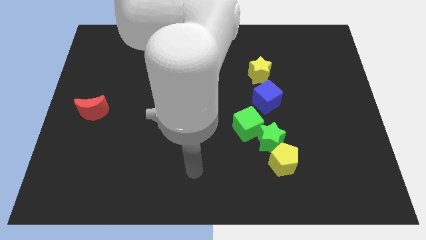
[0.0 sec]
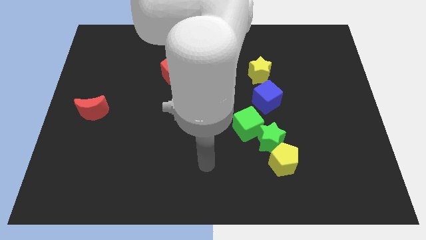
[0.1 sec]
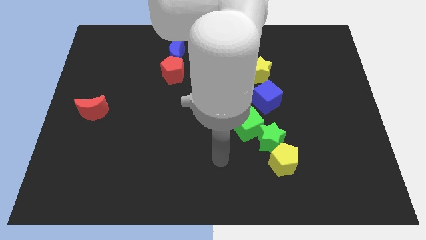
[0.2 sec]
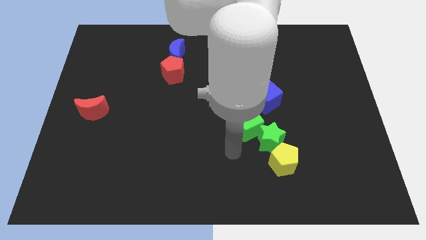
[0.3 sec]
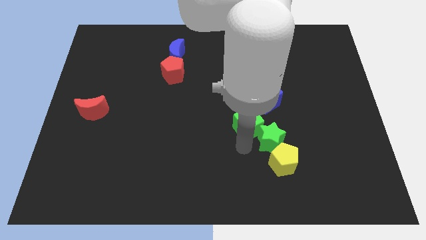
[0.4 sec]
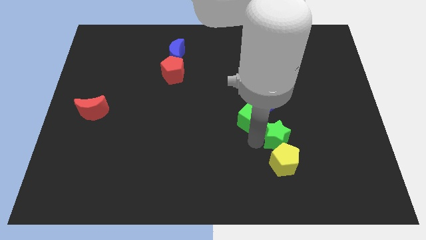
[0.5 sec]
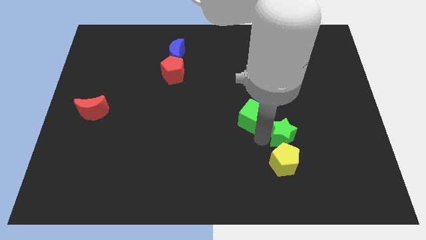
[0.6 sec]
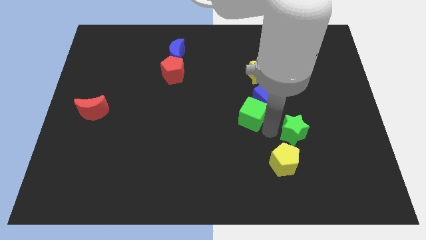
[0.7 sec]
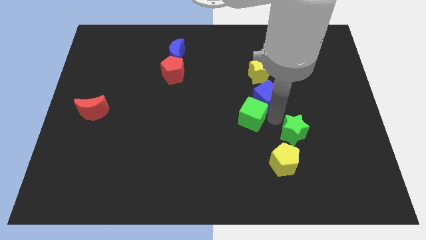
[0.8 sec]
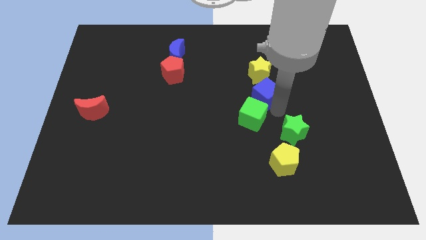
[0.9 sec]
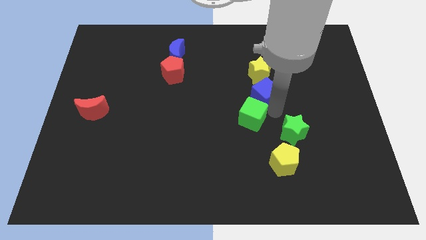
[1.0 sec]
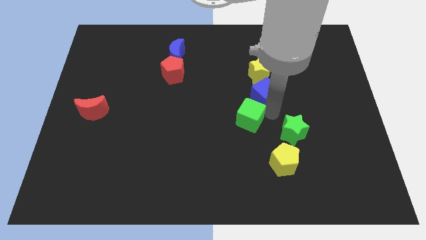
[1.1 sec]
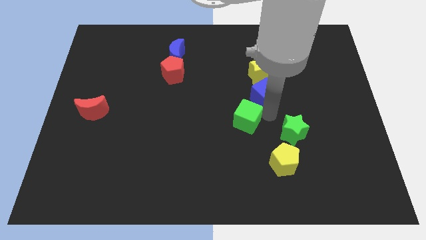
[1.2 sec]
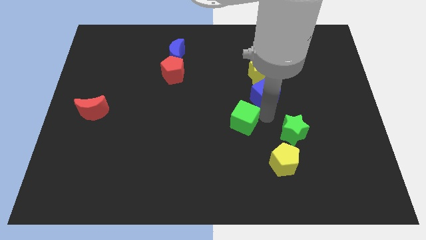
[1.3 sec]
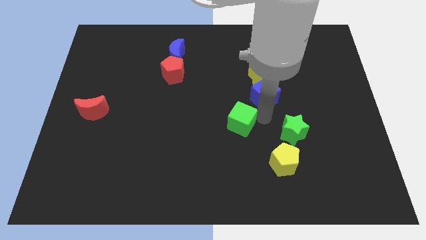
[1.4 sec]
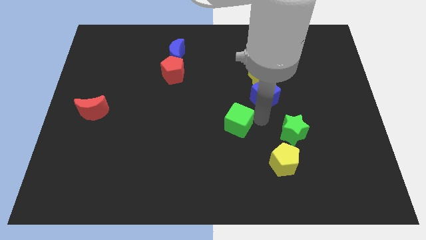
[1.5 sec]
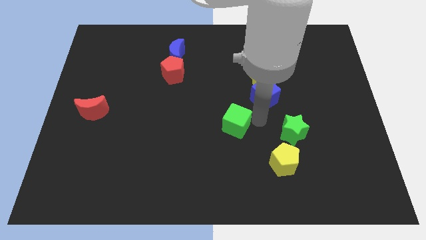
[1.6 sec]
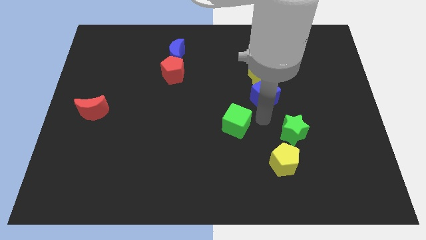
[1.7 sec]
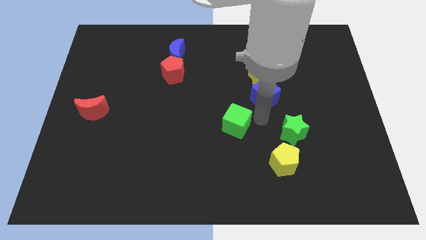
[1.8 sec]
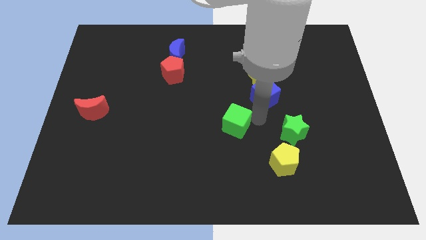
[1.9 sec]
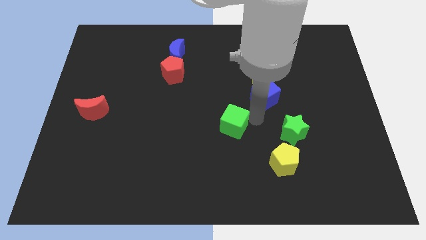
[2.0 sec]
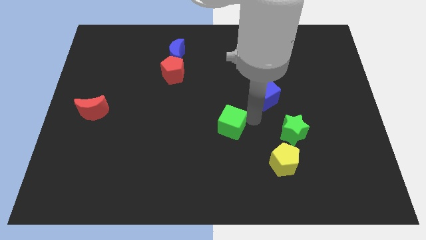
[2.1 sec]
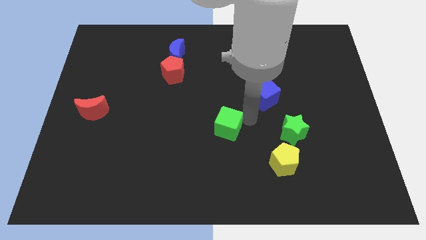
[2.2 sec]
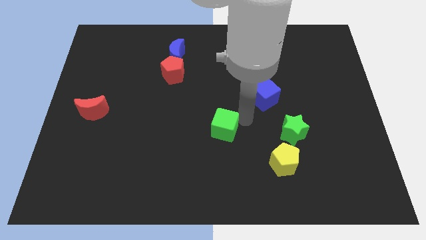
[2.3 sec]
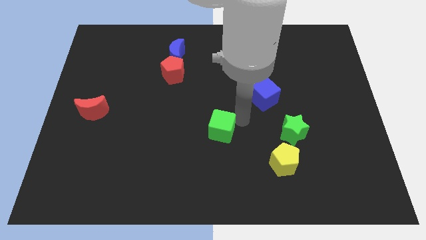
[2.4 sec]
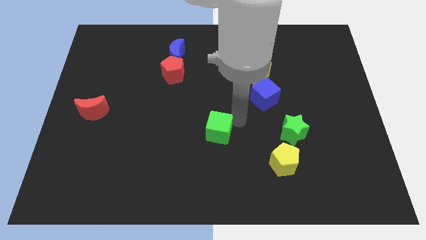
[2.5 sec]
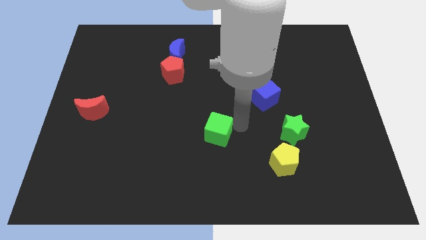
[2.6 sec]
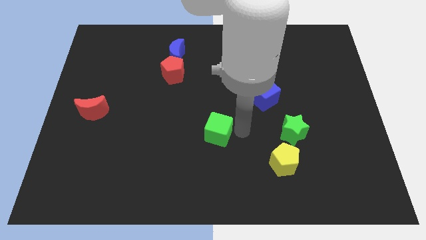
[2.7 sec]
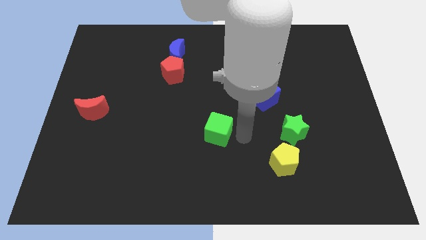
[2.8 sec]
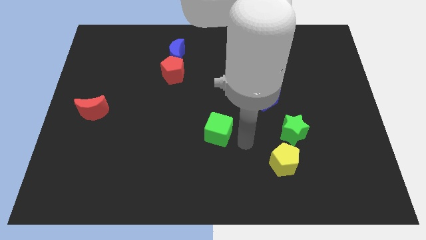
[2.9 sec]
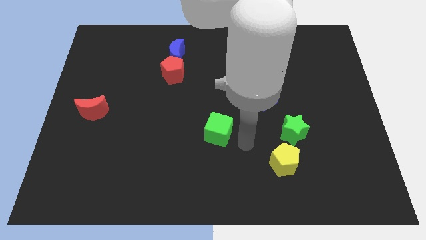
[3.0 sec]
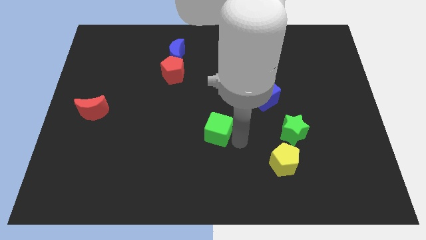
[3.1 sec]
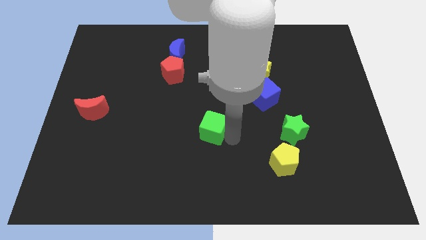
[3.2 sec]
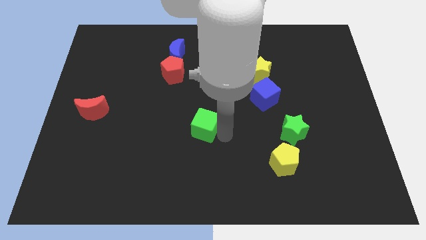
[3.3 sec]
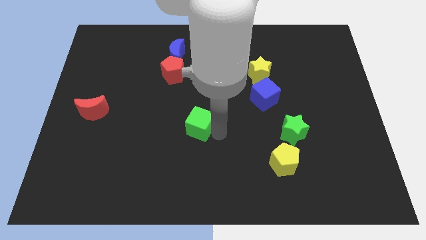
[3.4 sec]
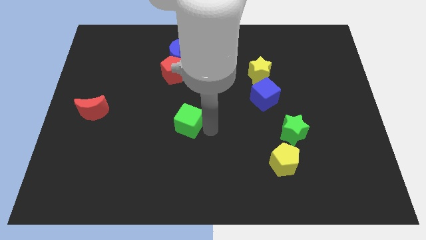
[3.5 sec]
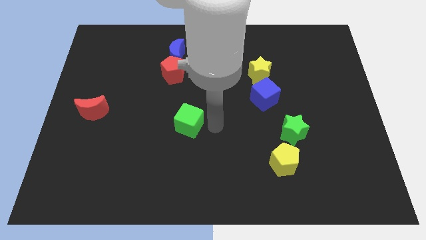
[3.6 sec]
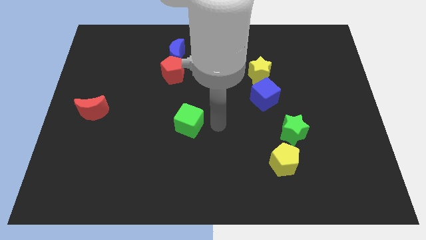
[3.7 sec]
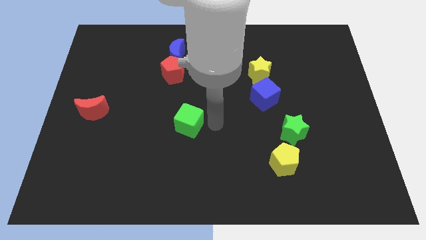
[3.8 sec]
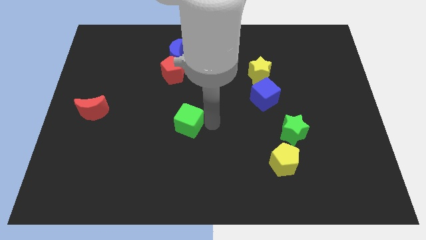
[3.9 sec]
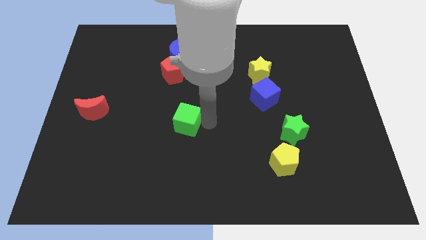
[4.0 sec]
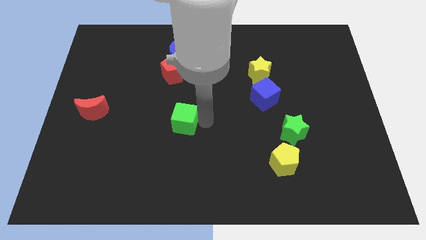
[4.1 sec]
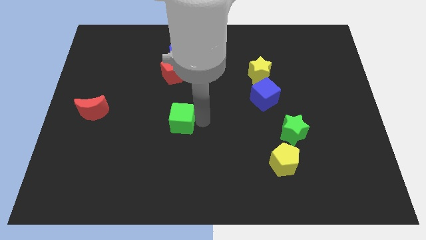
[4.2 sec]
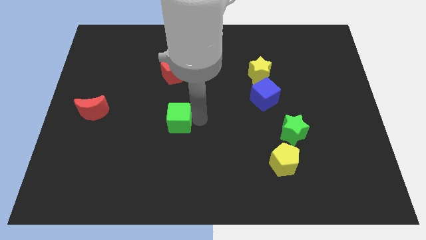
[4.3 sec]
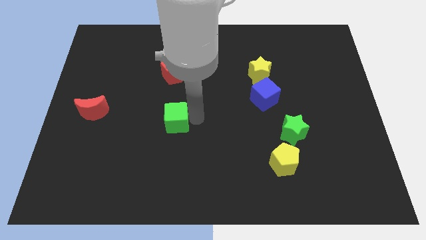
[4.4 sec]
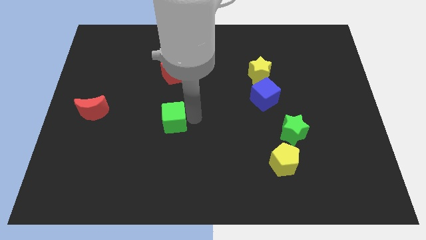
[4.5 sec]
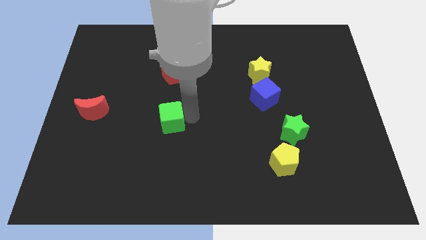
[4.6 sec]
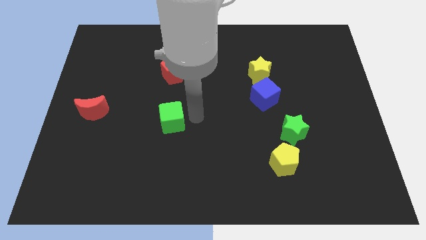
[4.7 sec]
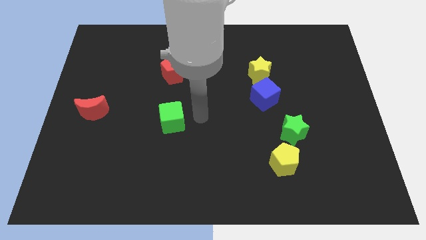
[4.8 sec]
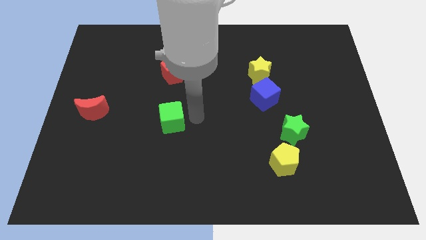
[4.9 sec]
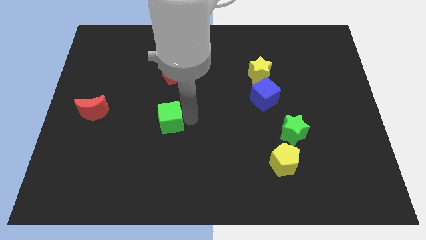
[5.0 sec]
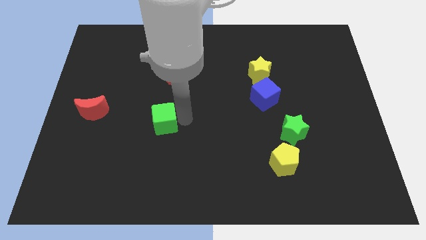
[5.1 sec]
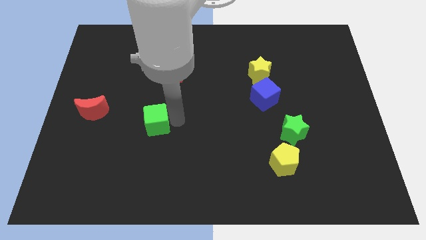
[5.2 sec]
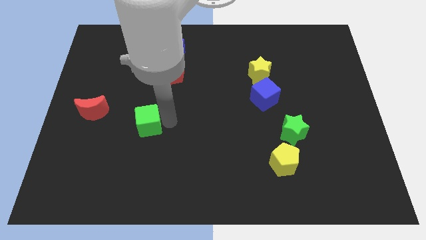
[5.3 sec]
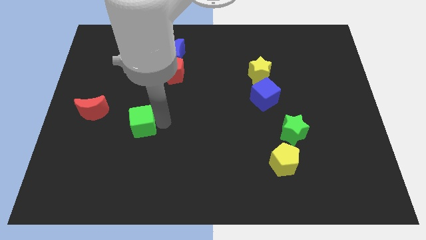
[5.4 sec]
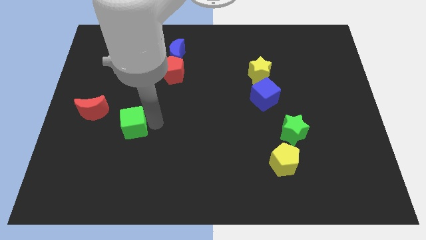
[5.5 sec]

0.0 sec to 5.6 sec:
push the green cube diagonally down and to the right of the red moon

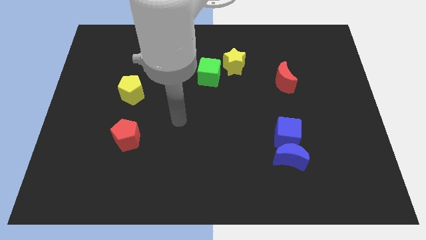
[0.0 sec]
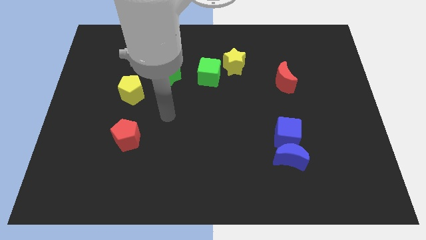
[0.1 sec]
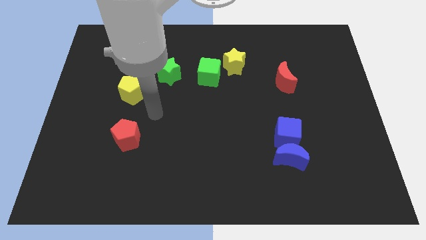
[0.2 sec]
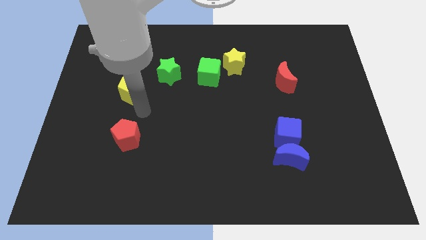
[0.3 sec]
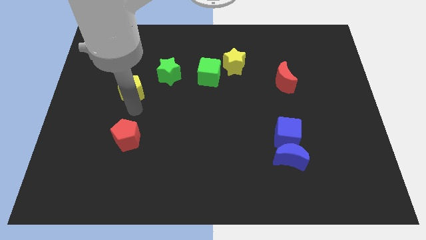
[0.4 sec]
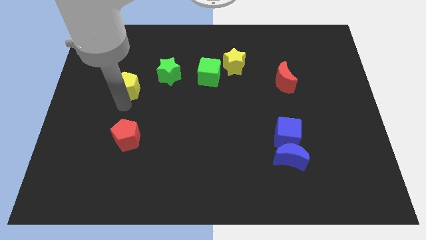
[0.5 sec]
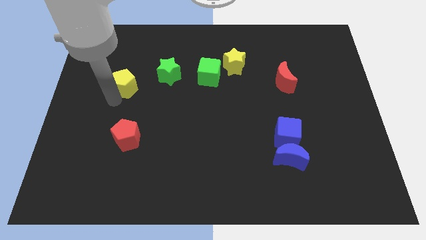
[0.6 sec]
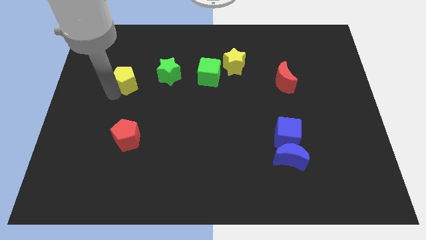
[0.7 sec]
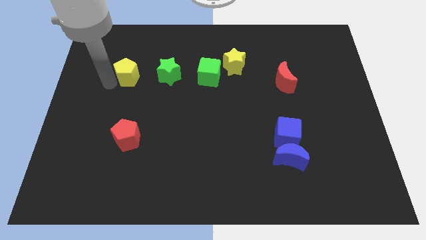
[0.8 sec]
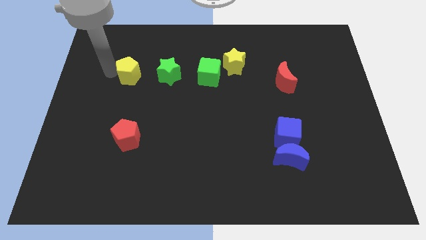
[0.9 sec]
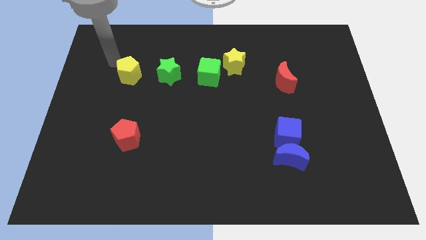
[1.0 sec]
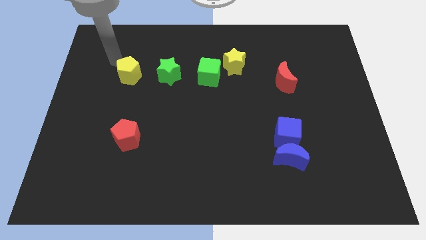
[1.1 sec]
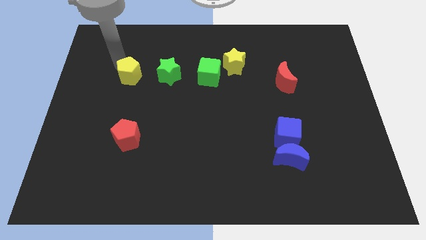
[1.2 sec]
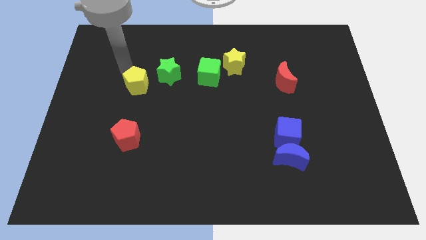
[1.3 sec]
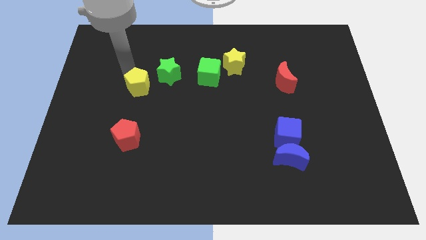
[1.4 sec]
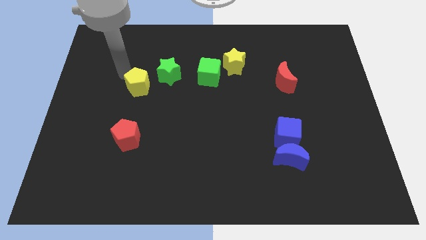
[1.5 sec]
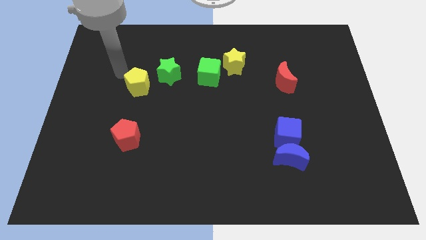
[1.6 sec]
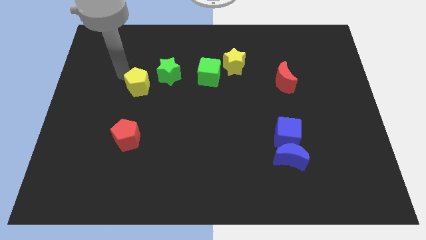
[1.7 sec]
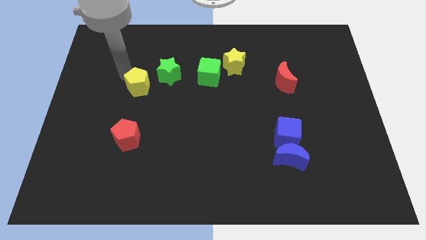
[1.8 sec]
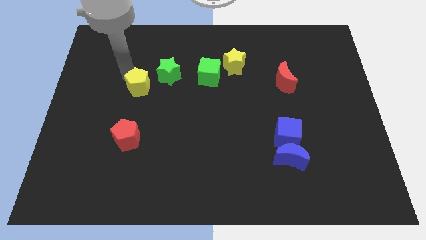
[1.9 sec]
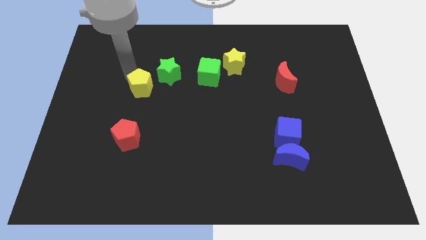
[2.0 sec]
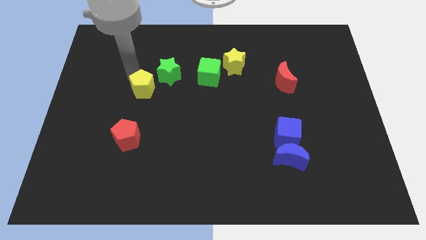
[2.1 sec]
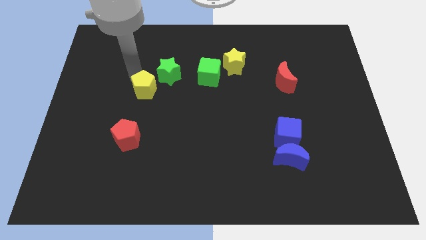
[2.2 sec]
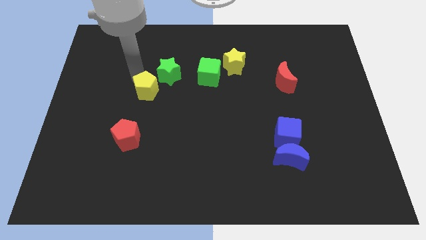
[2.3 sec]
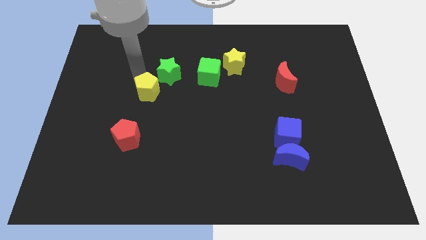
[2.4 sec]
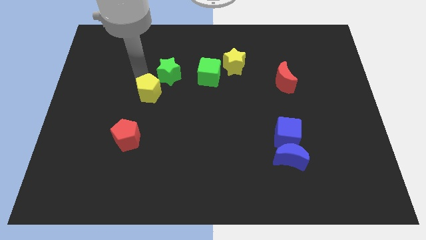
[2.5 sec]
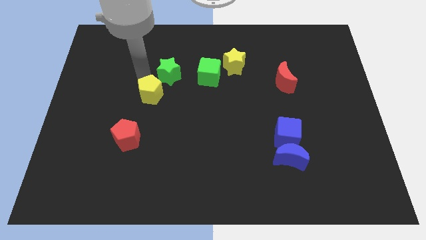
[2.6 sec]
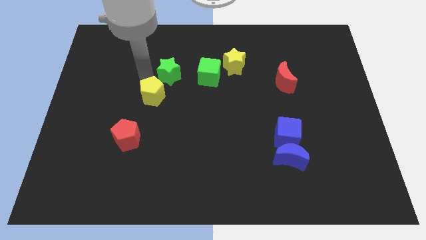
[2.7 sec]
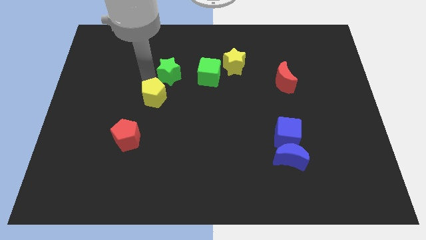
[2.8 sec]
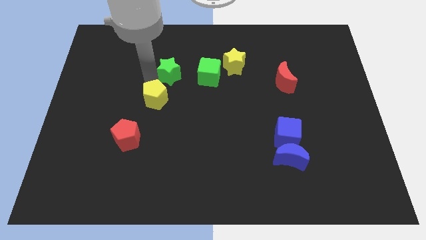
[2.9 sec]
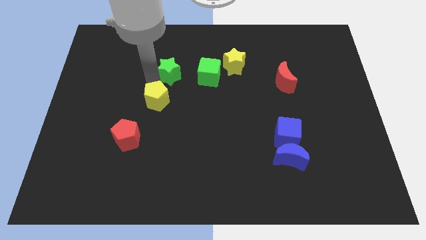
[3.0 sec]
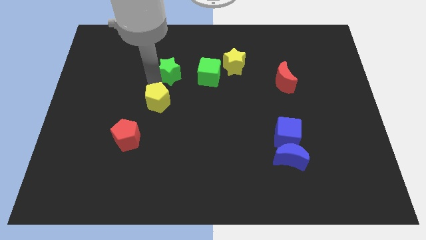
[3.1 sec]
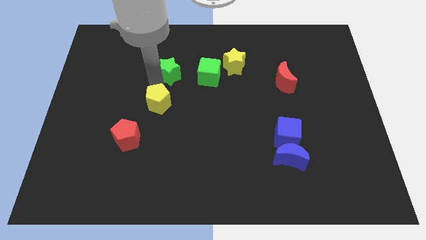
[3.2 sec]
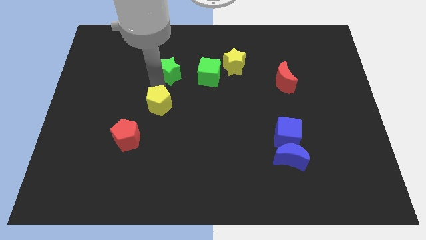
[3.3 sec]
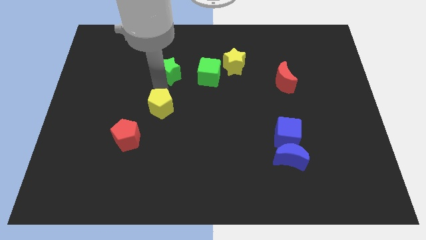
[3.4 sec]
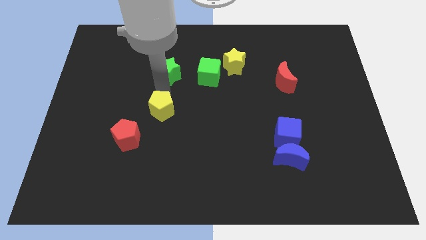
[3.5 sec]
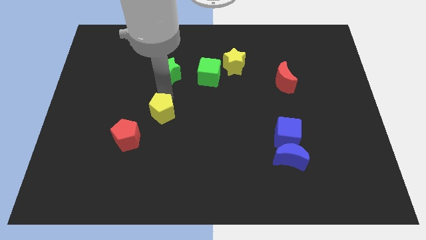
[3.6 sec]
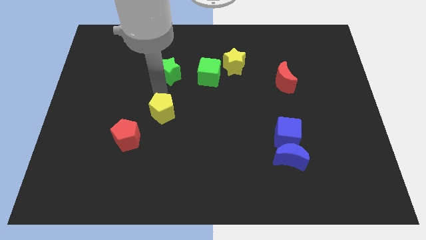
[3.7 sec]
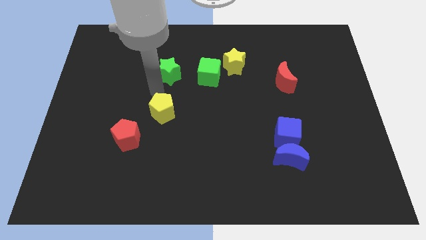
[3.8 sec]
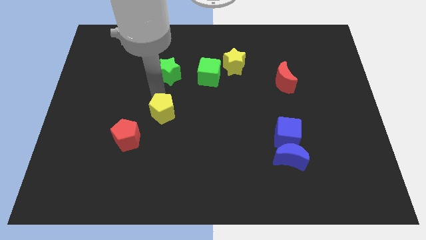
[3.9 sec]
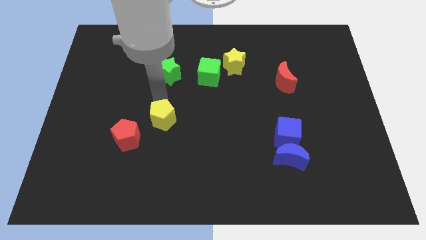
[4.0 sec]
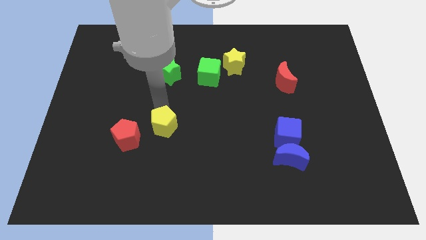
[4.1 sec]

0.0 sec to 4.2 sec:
slide the yellow pentagon right of the red pentagon